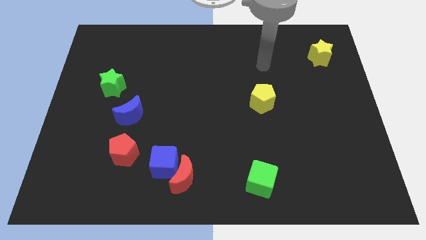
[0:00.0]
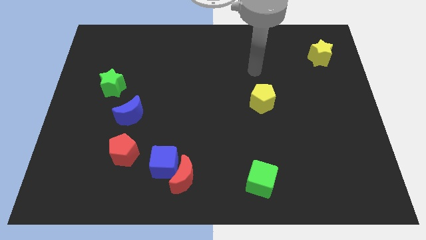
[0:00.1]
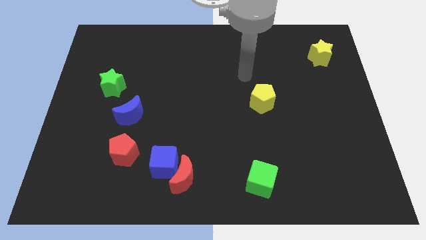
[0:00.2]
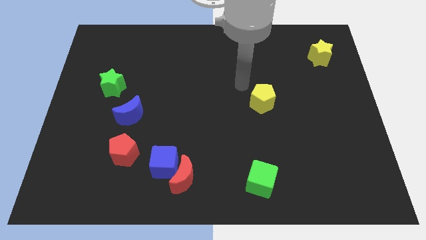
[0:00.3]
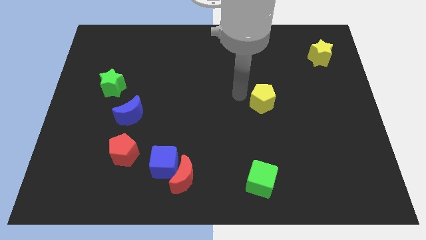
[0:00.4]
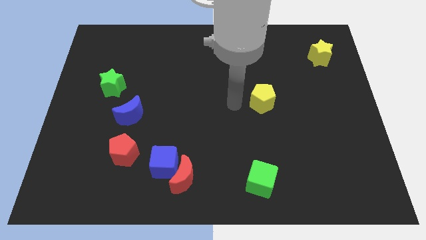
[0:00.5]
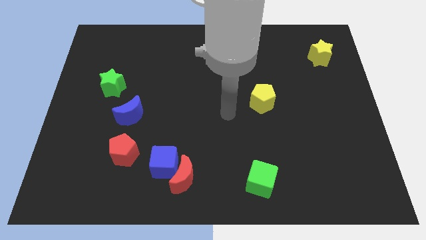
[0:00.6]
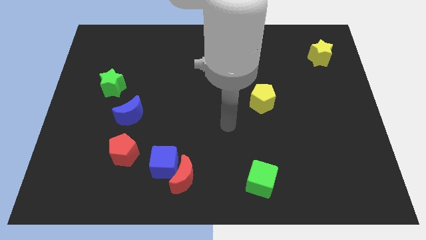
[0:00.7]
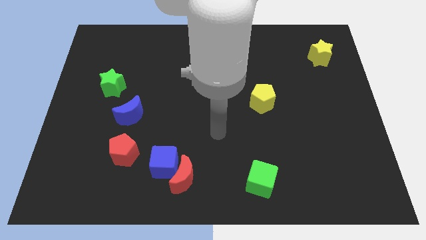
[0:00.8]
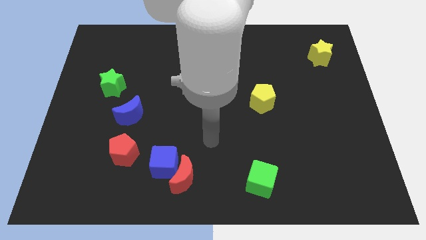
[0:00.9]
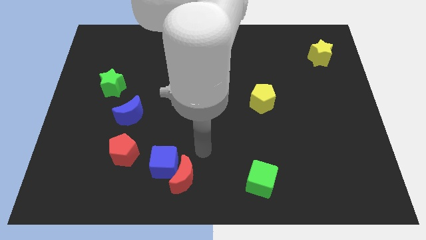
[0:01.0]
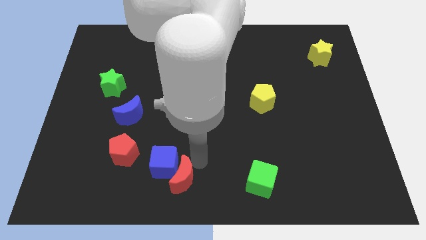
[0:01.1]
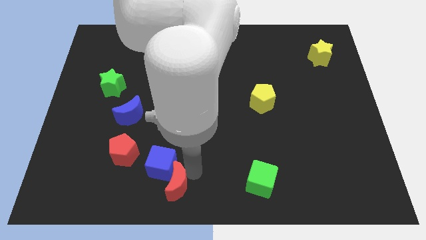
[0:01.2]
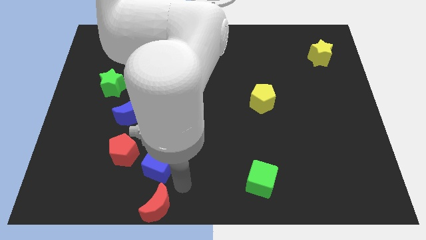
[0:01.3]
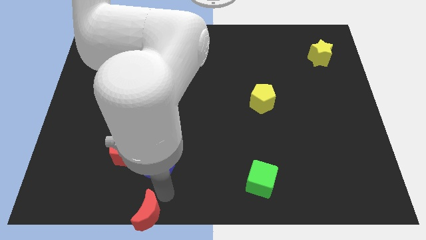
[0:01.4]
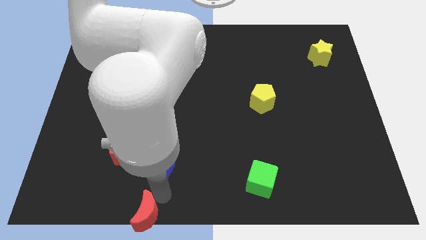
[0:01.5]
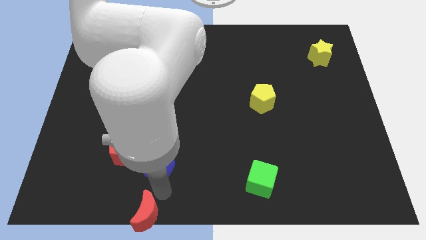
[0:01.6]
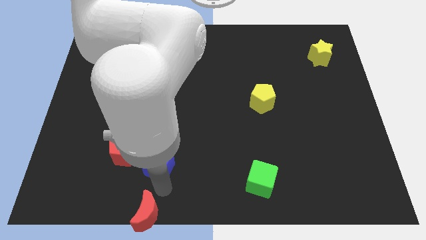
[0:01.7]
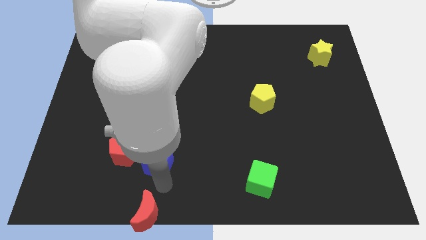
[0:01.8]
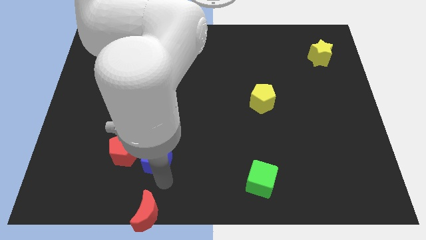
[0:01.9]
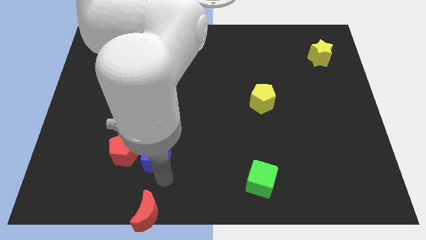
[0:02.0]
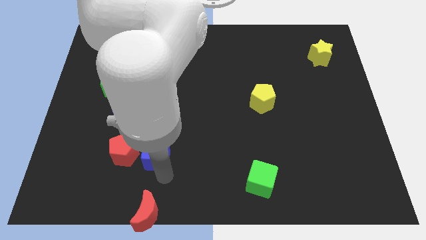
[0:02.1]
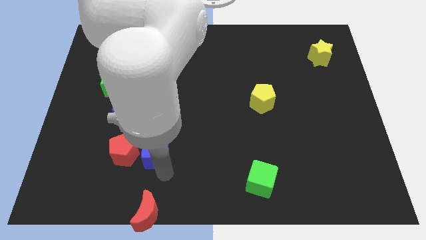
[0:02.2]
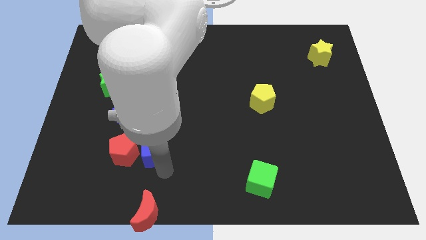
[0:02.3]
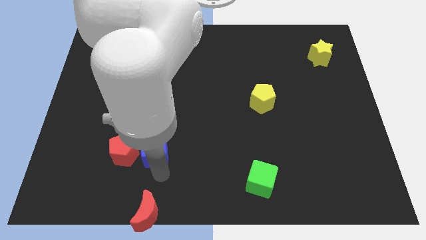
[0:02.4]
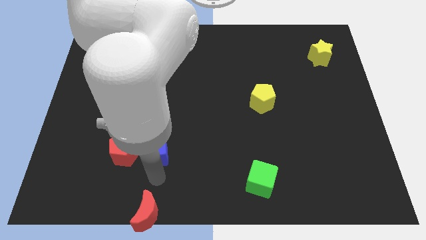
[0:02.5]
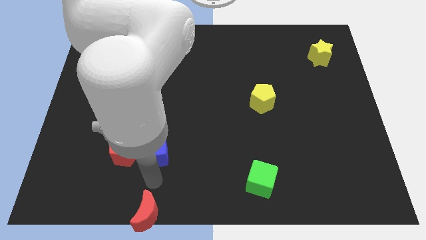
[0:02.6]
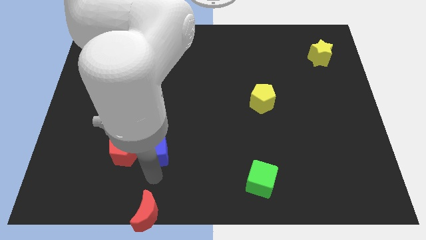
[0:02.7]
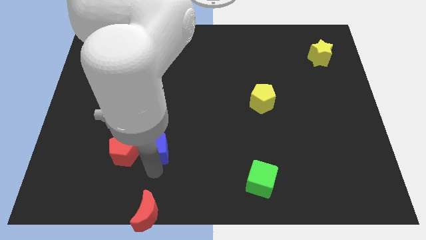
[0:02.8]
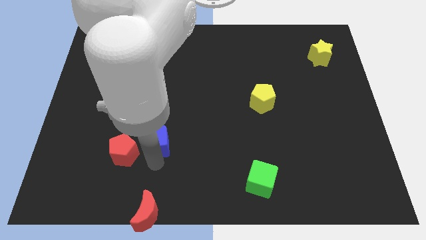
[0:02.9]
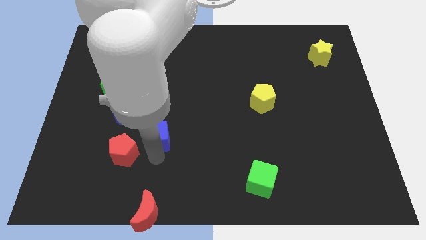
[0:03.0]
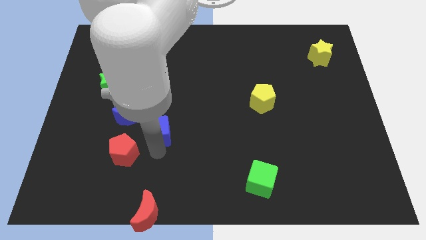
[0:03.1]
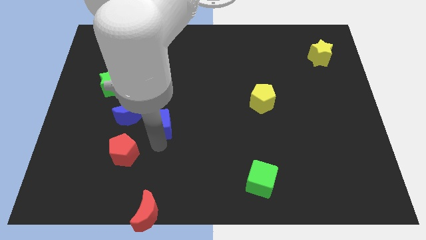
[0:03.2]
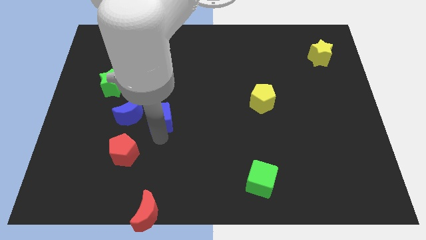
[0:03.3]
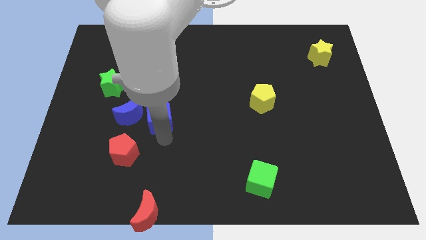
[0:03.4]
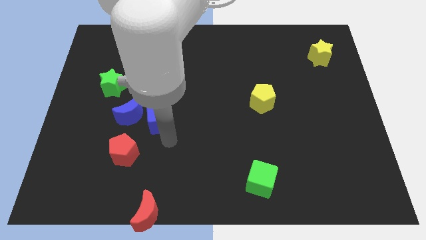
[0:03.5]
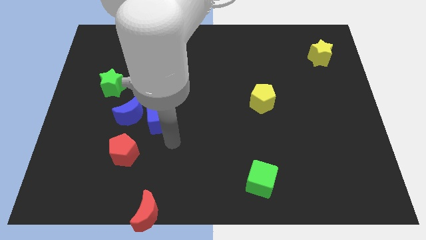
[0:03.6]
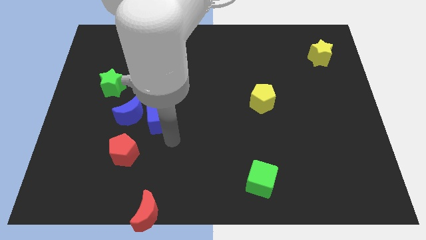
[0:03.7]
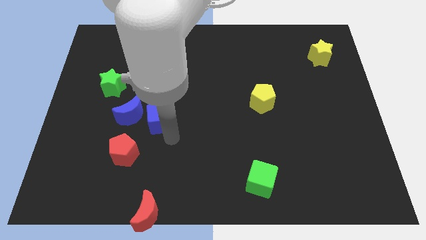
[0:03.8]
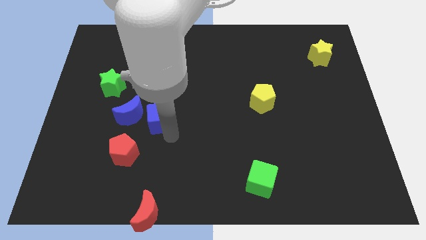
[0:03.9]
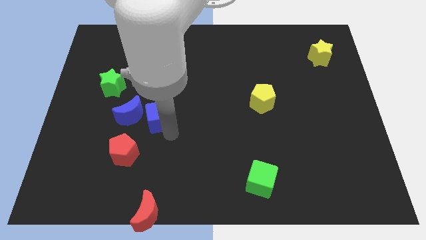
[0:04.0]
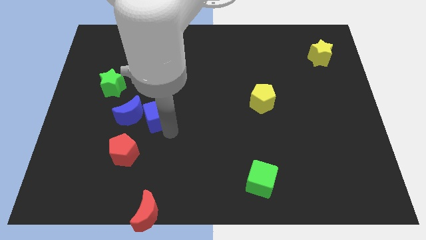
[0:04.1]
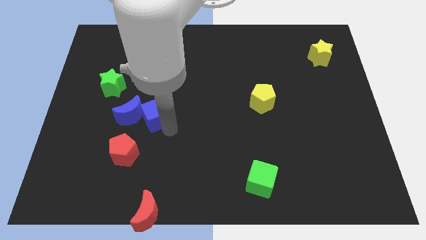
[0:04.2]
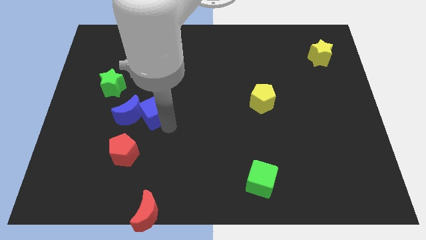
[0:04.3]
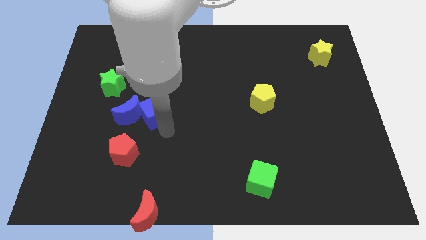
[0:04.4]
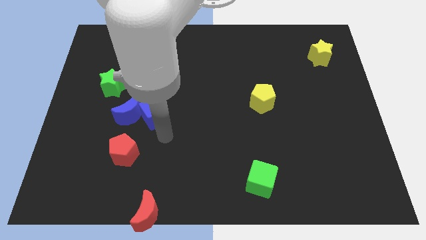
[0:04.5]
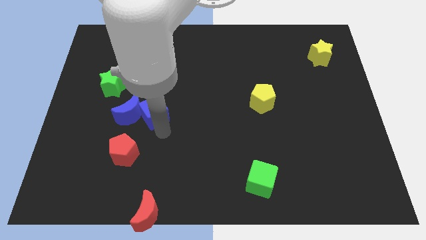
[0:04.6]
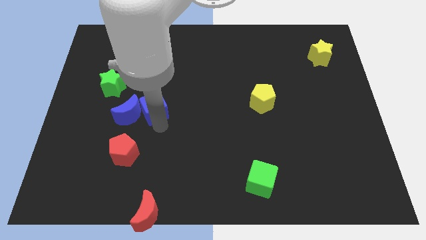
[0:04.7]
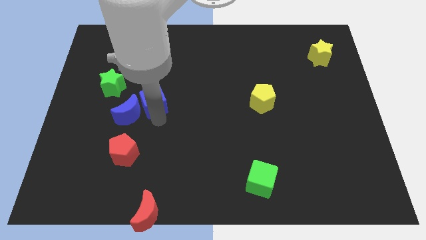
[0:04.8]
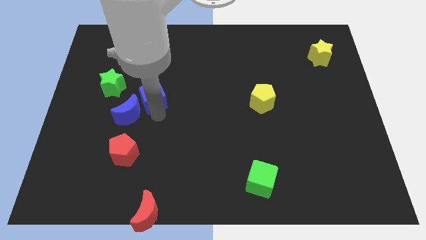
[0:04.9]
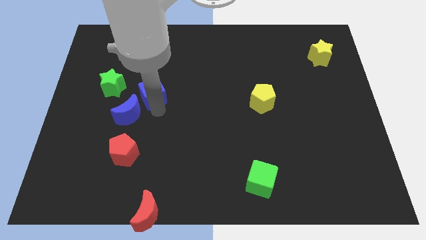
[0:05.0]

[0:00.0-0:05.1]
put the blue cube to the top of the blue moon

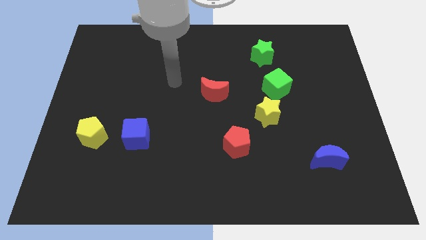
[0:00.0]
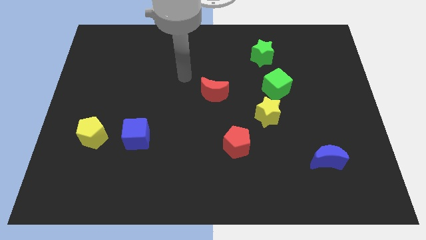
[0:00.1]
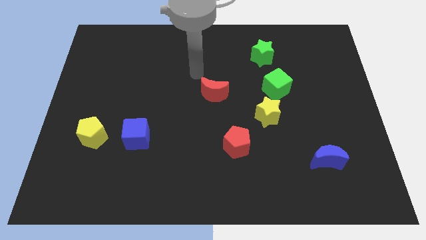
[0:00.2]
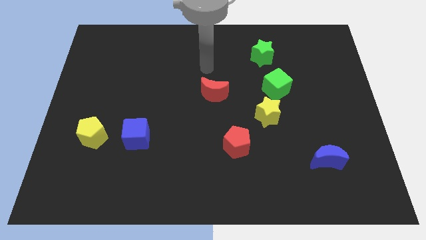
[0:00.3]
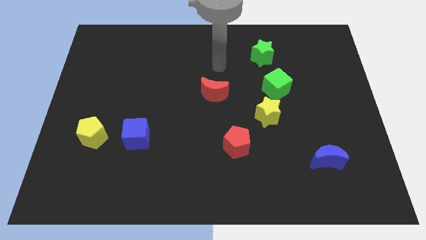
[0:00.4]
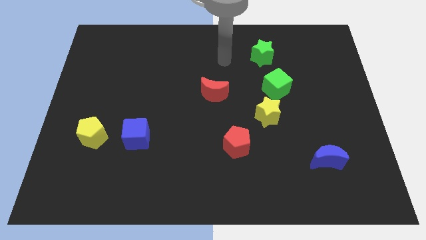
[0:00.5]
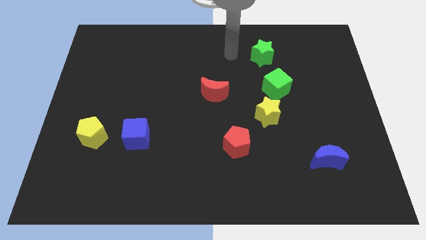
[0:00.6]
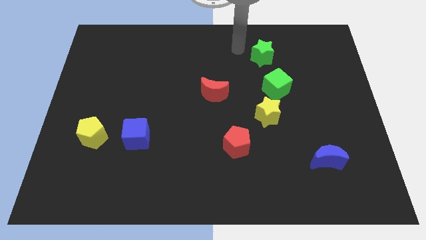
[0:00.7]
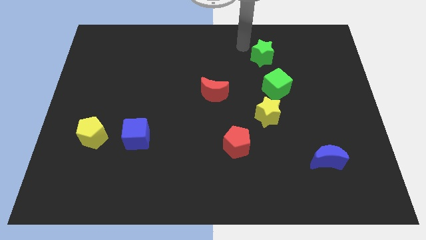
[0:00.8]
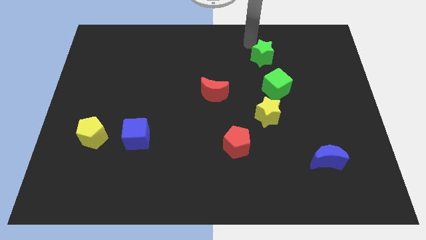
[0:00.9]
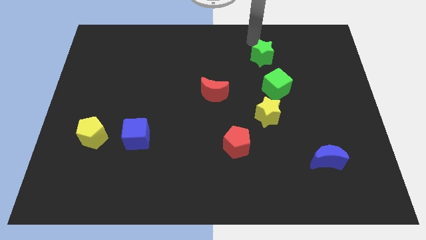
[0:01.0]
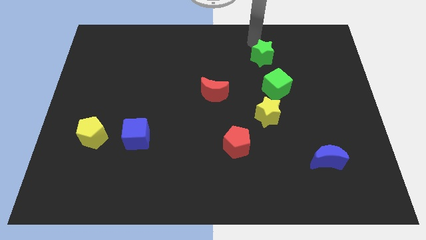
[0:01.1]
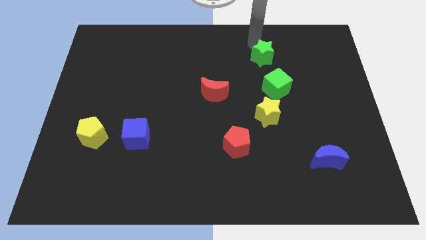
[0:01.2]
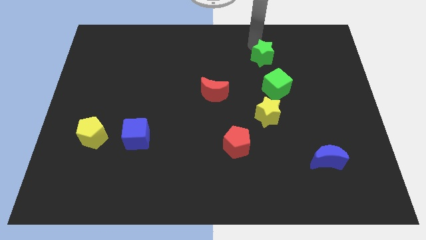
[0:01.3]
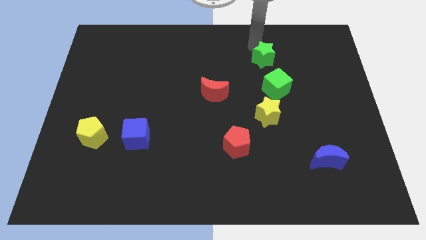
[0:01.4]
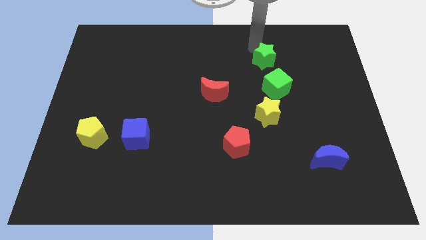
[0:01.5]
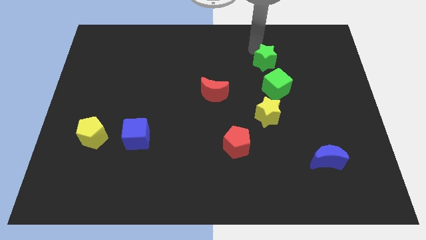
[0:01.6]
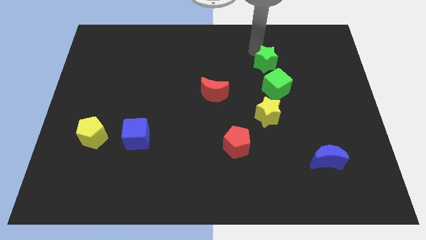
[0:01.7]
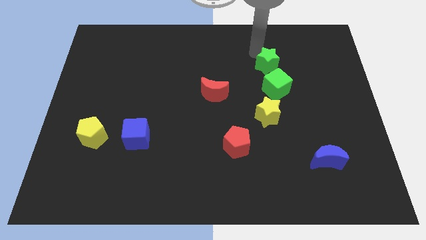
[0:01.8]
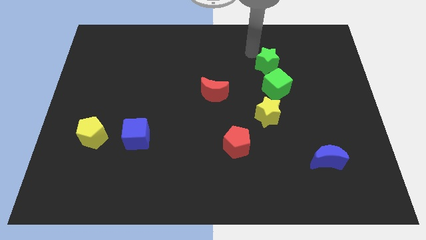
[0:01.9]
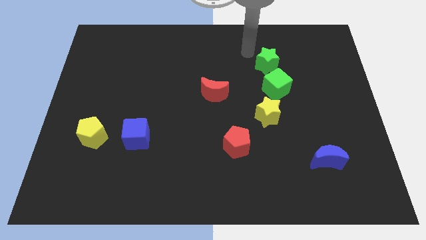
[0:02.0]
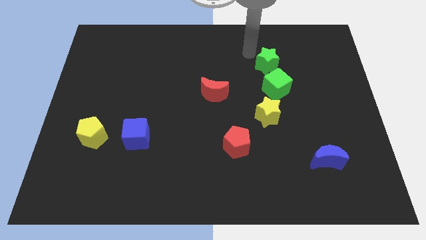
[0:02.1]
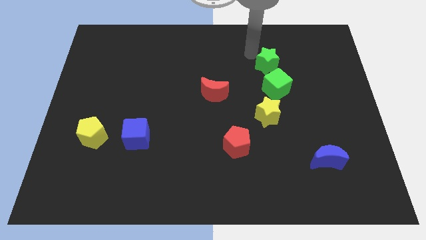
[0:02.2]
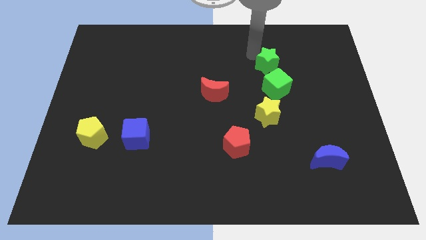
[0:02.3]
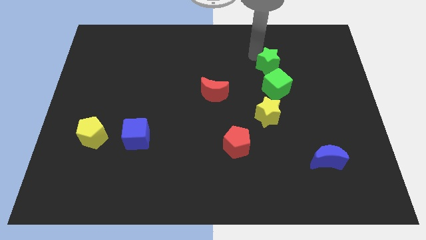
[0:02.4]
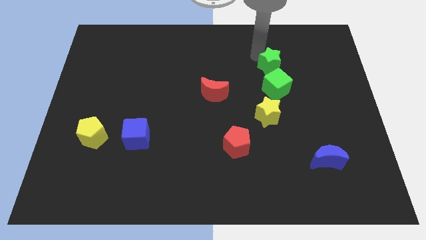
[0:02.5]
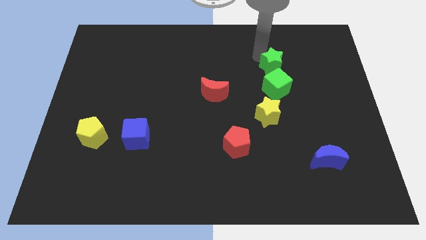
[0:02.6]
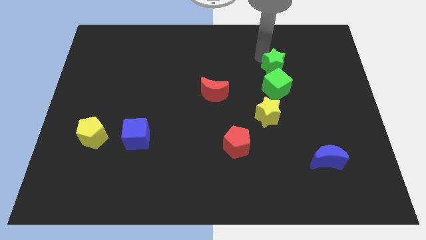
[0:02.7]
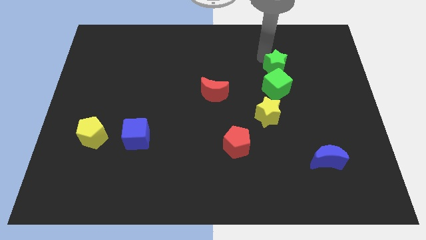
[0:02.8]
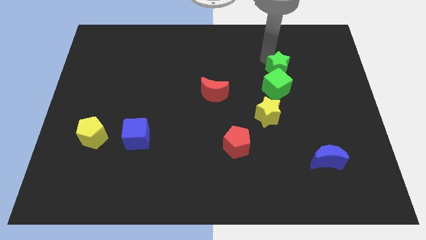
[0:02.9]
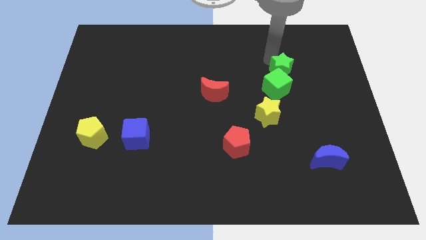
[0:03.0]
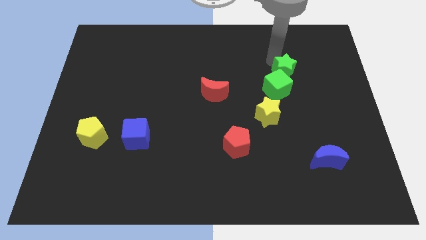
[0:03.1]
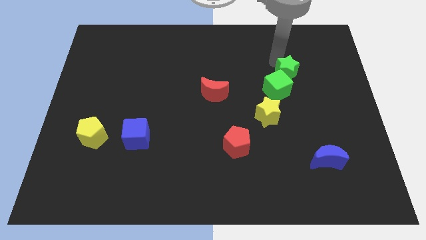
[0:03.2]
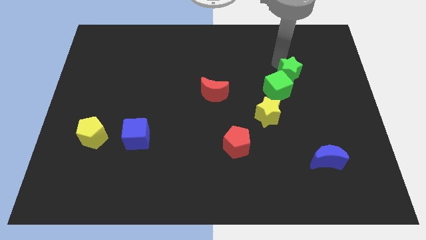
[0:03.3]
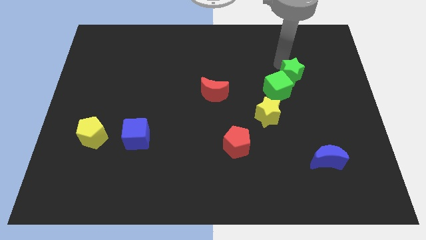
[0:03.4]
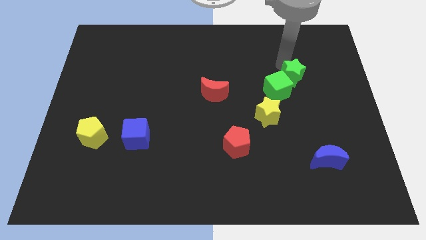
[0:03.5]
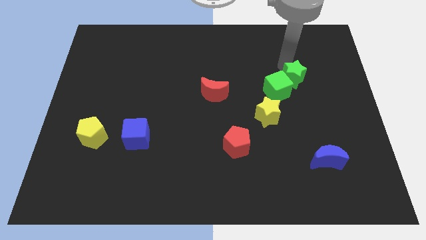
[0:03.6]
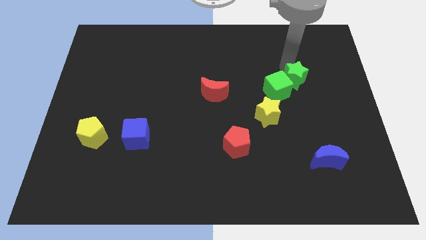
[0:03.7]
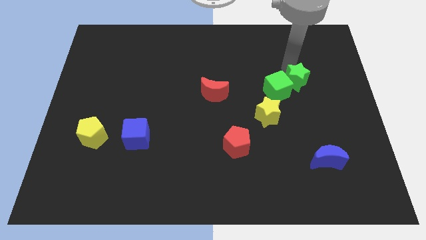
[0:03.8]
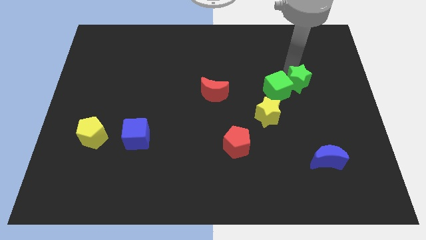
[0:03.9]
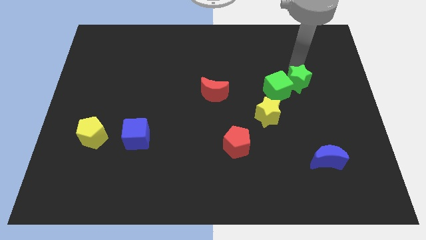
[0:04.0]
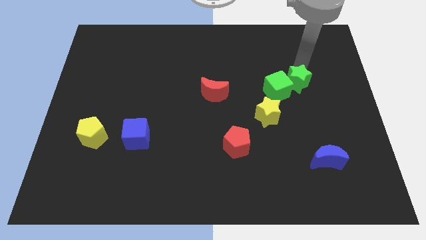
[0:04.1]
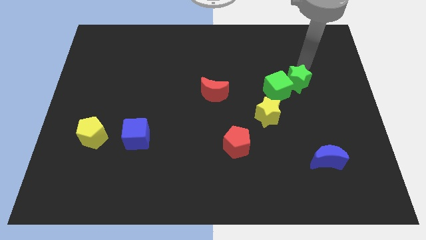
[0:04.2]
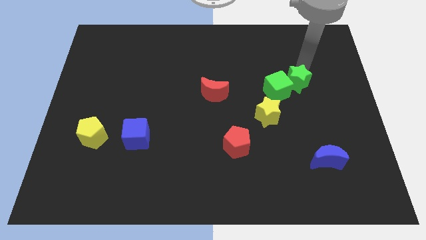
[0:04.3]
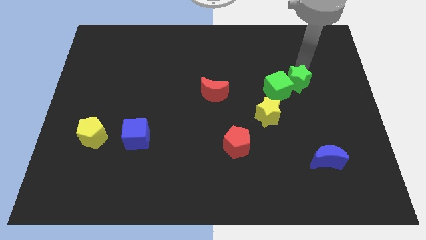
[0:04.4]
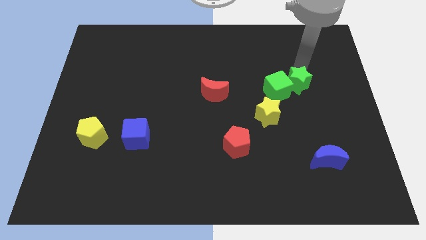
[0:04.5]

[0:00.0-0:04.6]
put the green star to the top right side of the yellow star
